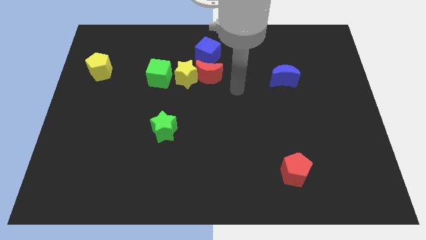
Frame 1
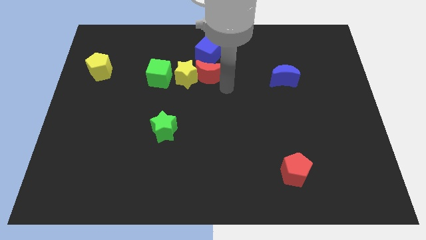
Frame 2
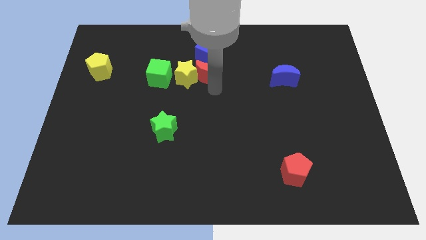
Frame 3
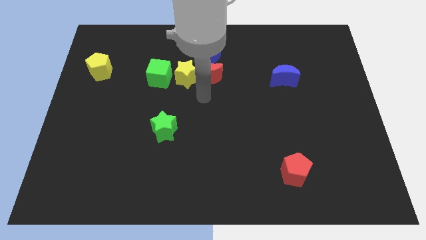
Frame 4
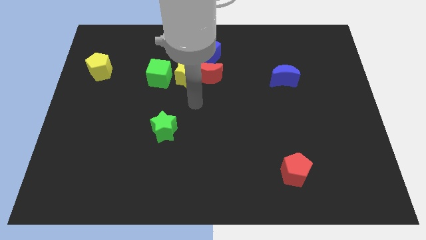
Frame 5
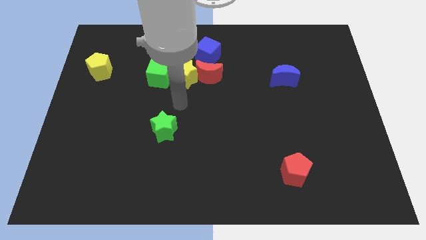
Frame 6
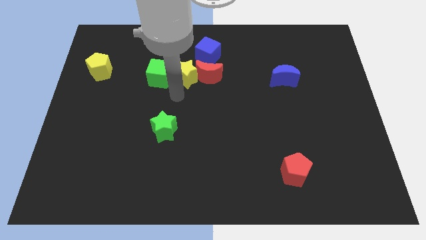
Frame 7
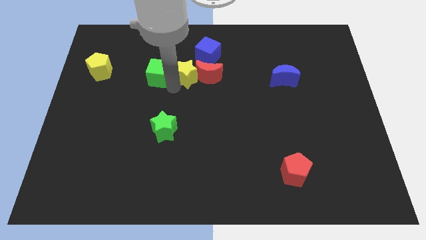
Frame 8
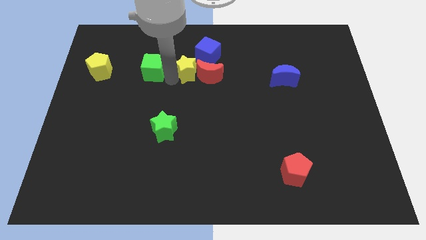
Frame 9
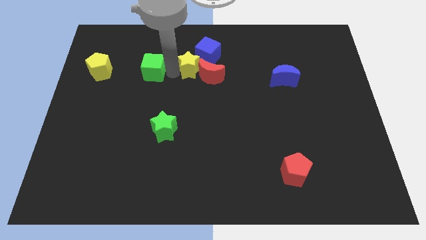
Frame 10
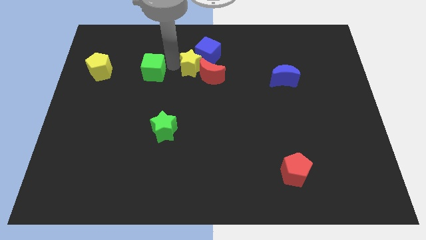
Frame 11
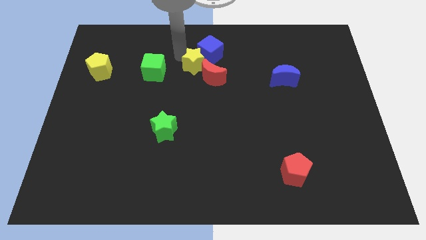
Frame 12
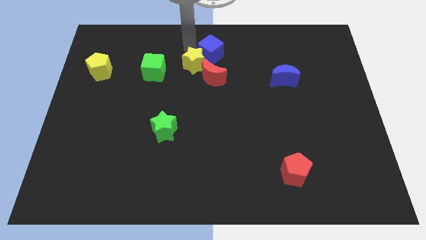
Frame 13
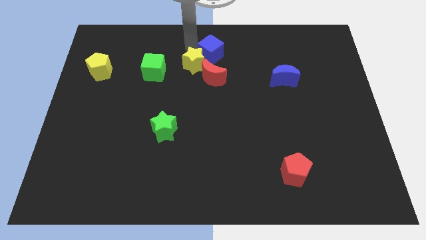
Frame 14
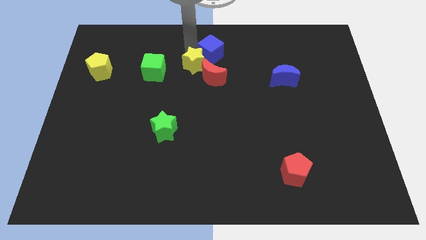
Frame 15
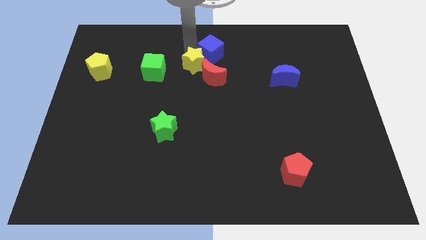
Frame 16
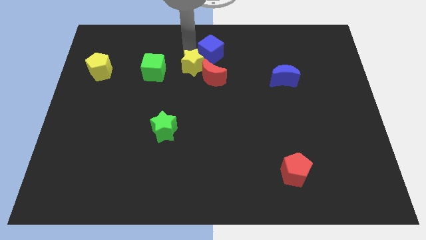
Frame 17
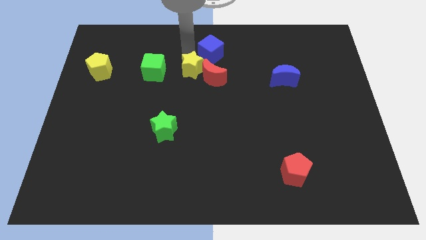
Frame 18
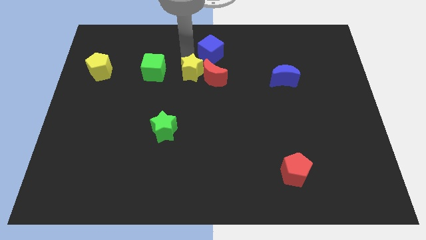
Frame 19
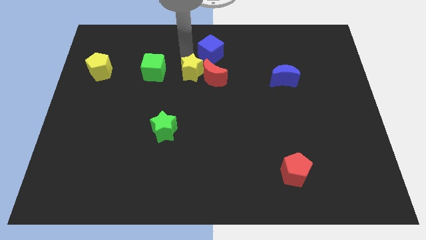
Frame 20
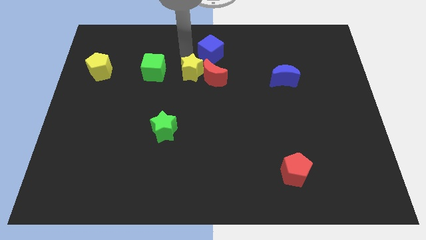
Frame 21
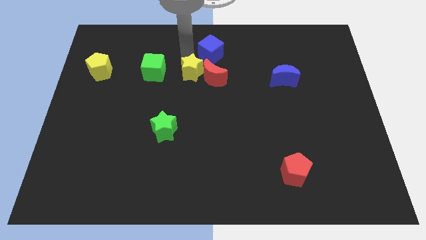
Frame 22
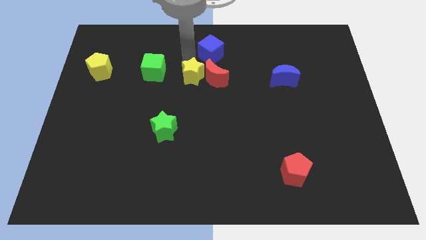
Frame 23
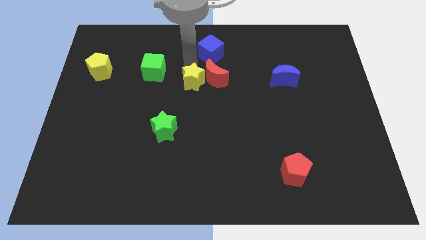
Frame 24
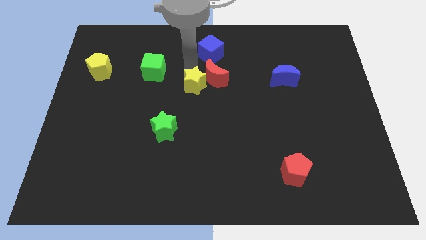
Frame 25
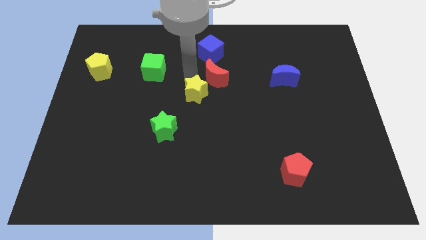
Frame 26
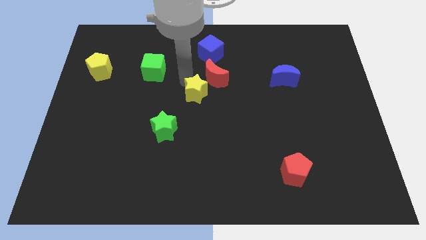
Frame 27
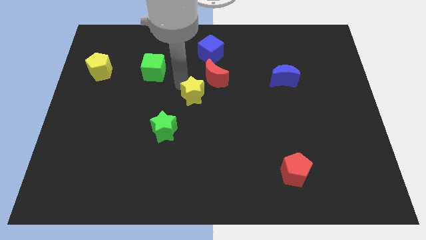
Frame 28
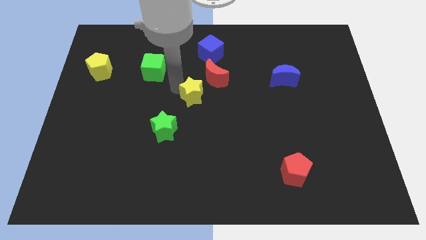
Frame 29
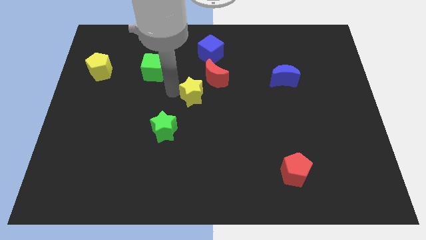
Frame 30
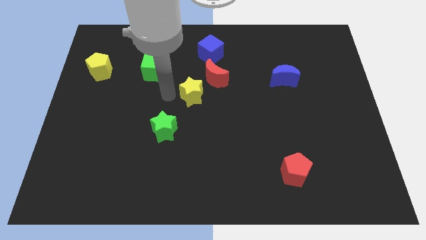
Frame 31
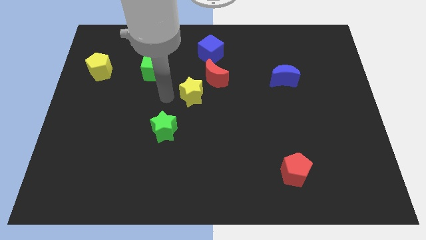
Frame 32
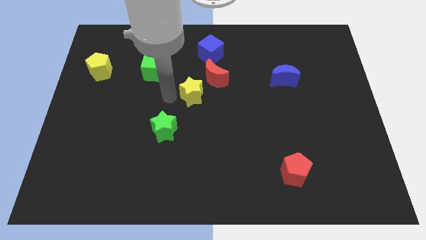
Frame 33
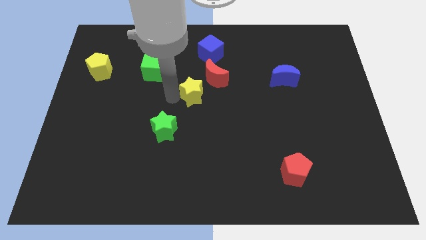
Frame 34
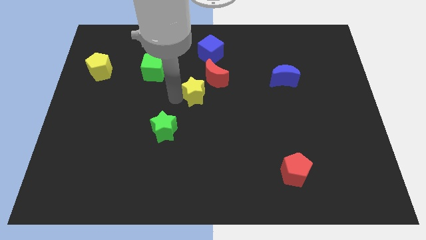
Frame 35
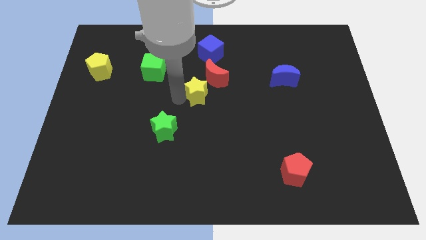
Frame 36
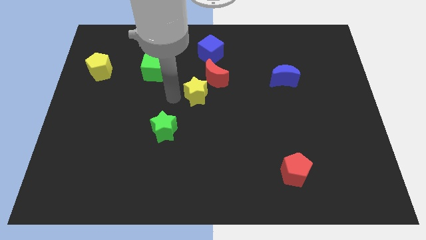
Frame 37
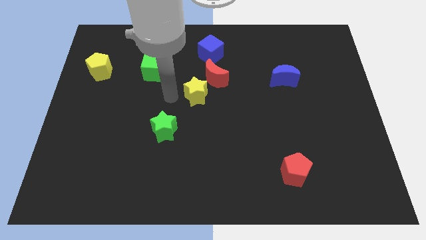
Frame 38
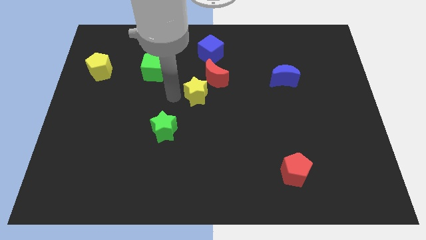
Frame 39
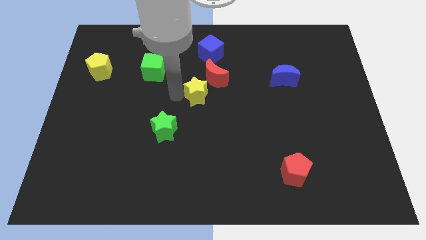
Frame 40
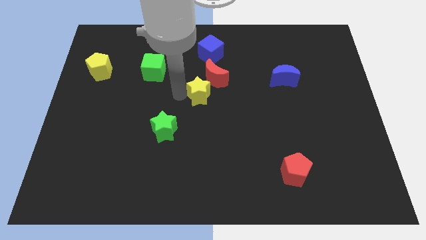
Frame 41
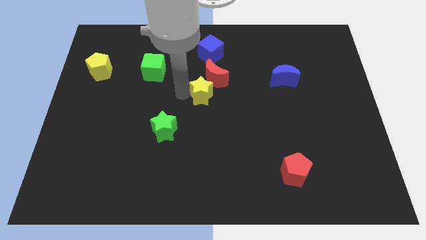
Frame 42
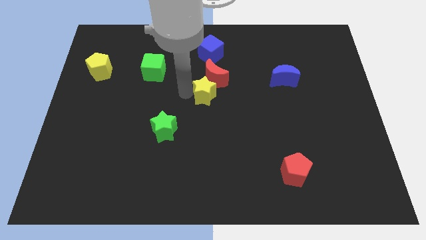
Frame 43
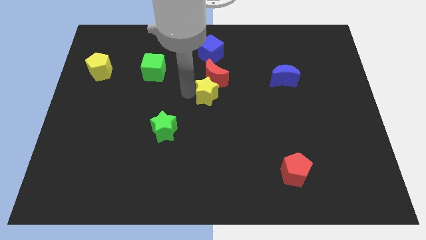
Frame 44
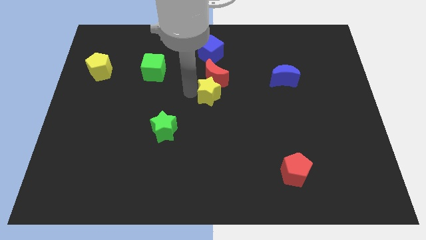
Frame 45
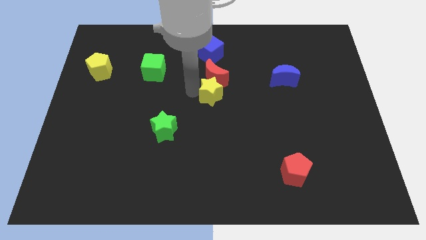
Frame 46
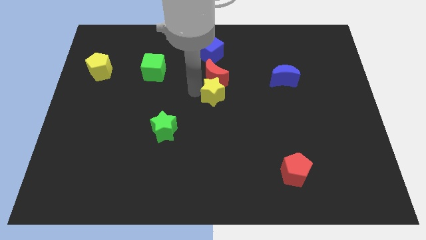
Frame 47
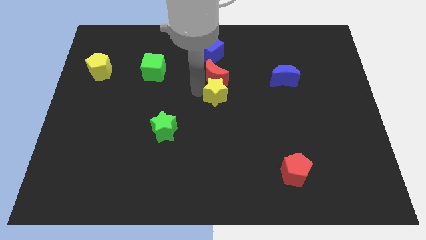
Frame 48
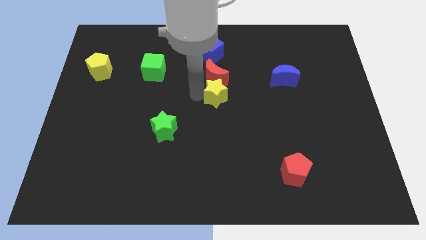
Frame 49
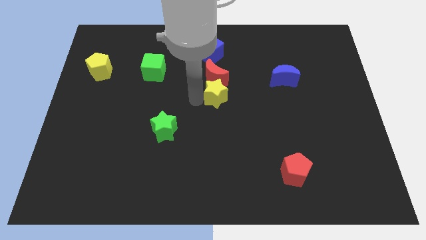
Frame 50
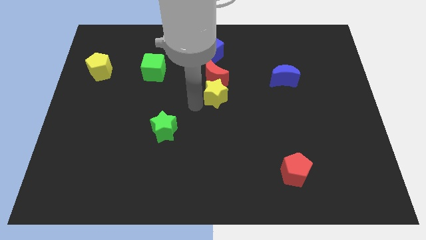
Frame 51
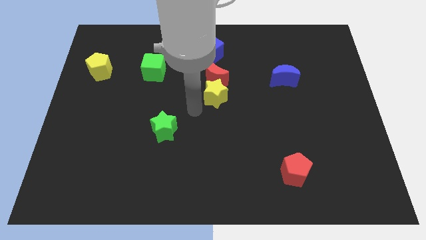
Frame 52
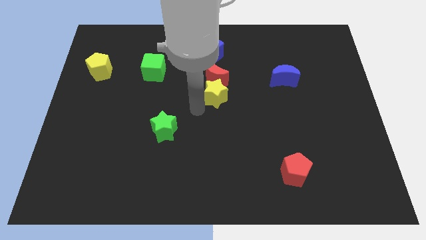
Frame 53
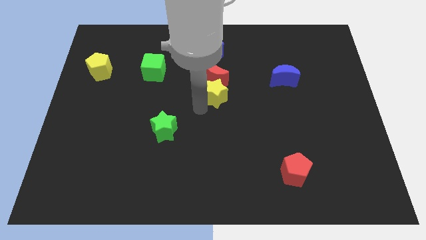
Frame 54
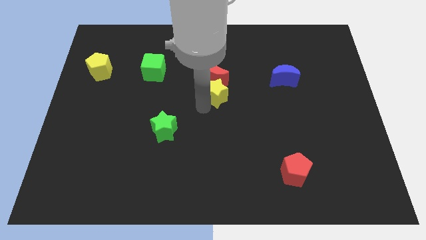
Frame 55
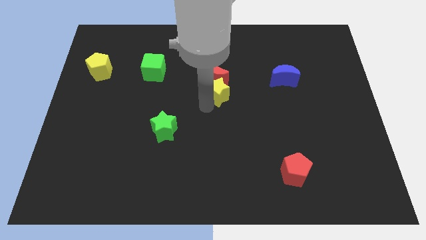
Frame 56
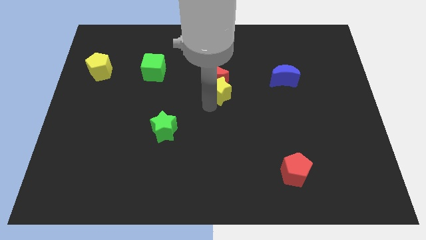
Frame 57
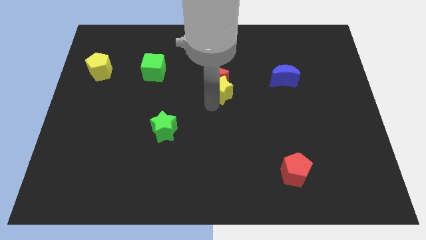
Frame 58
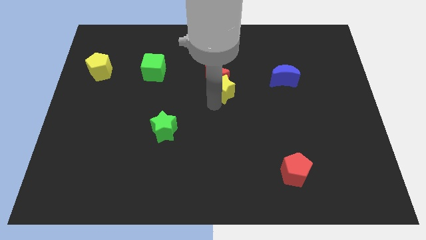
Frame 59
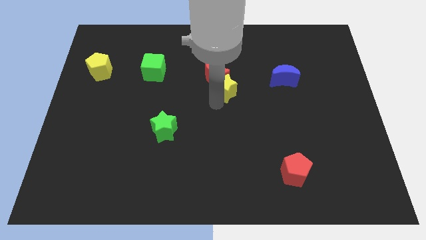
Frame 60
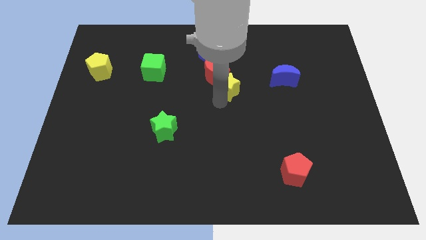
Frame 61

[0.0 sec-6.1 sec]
move the yellow star just right of the red moon

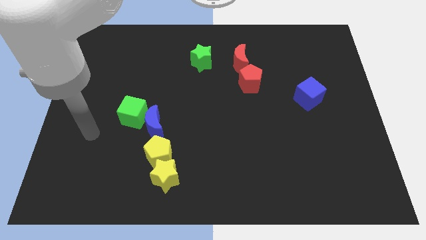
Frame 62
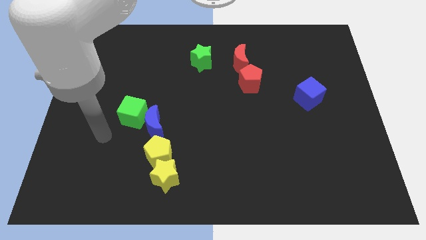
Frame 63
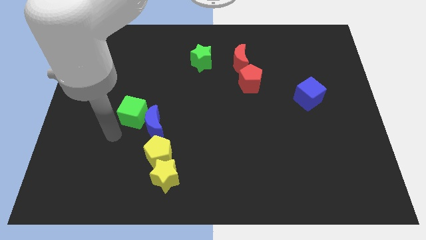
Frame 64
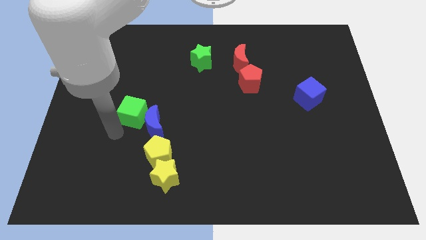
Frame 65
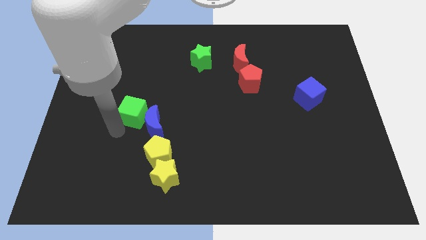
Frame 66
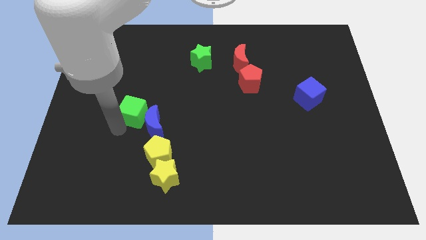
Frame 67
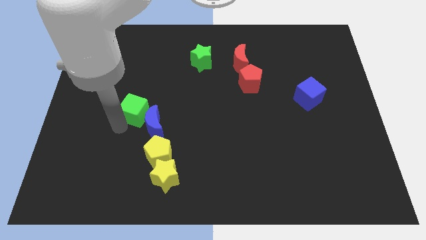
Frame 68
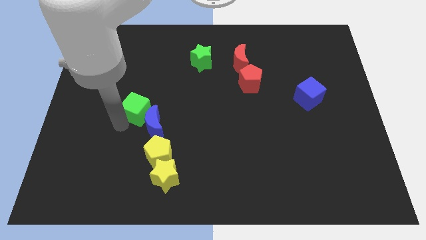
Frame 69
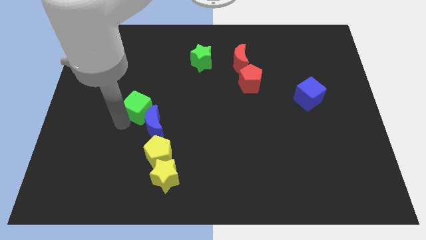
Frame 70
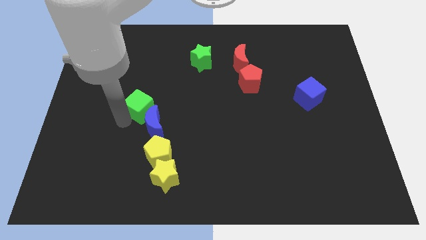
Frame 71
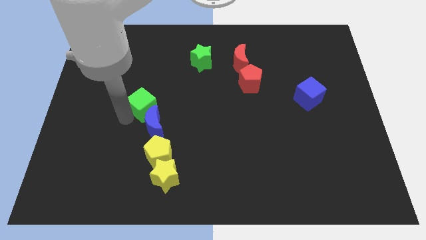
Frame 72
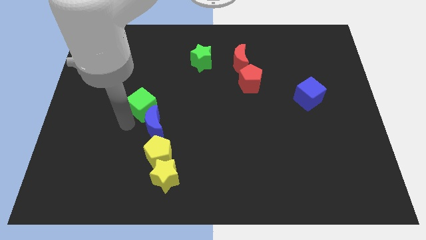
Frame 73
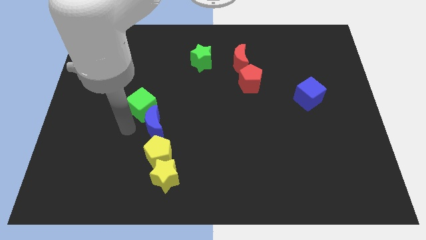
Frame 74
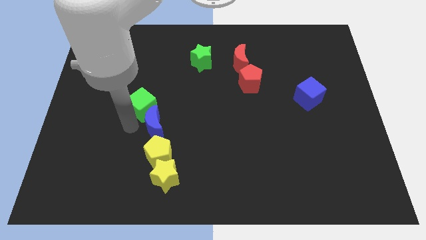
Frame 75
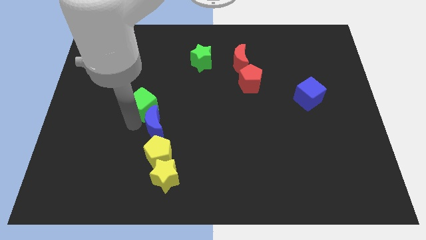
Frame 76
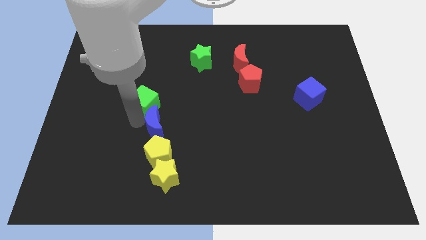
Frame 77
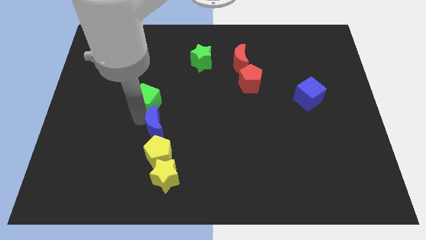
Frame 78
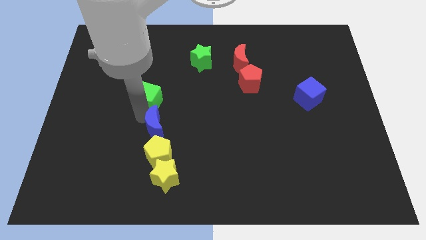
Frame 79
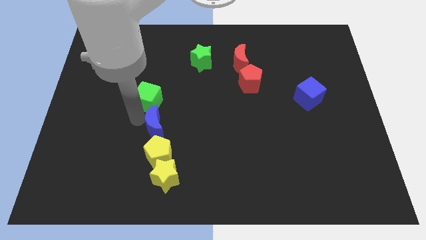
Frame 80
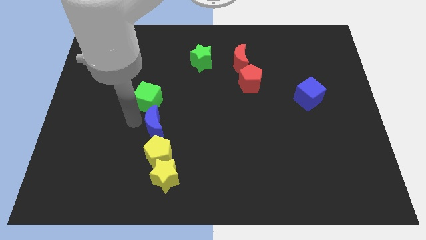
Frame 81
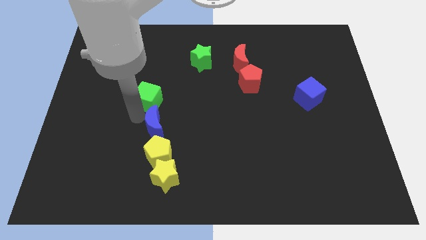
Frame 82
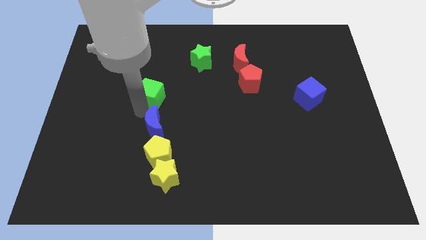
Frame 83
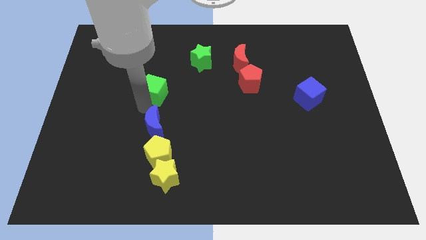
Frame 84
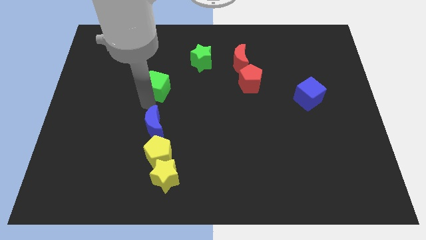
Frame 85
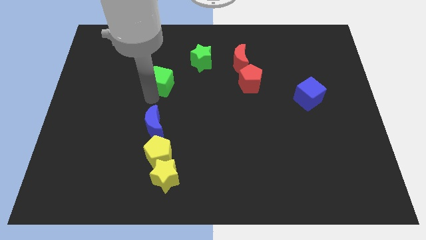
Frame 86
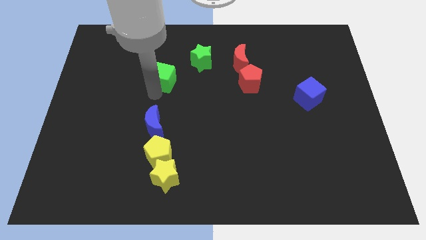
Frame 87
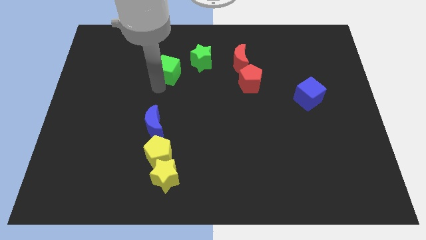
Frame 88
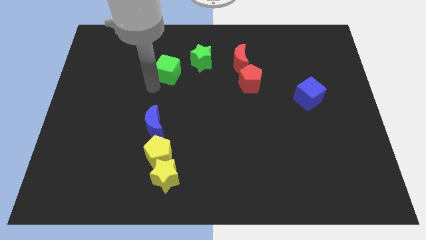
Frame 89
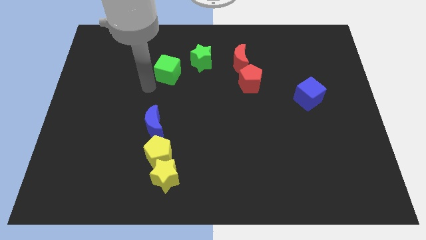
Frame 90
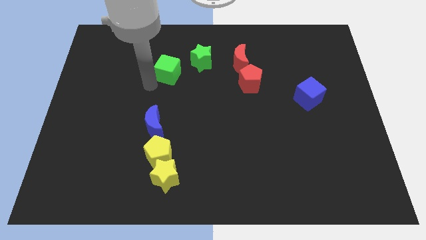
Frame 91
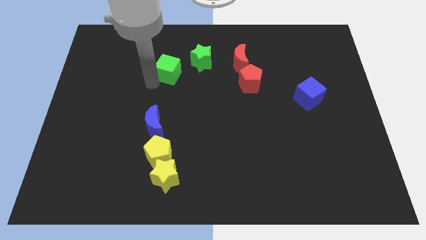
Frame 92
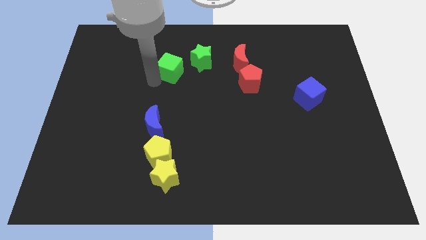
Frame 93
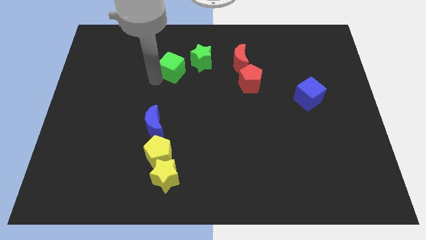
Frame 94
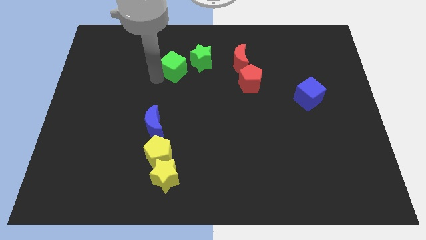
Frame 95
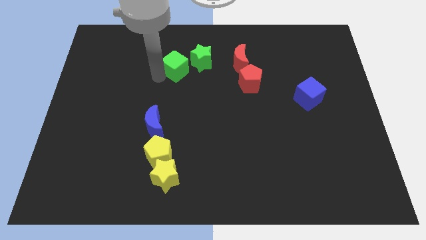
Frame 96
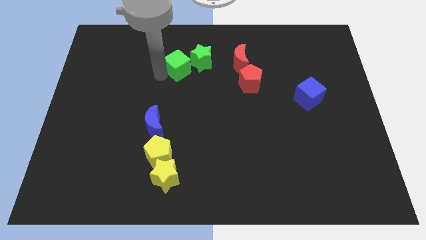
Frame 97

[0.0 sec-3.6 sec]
slide the green cube to the left side of the red moon
